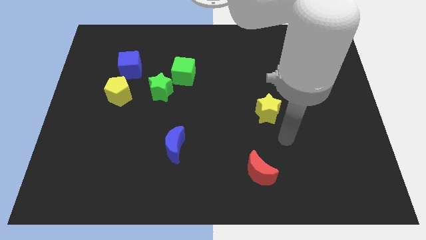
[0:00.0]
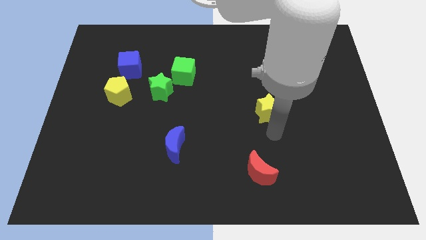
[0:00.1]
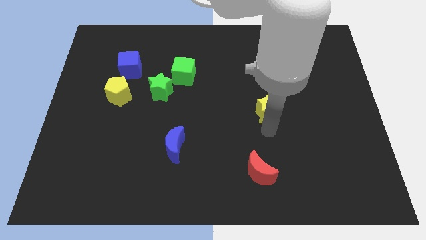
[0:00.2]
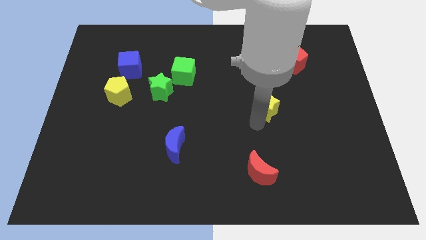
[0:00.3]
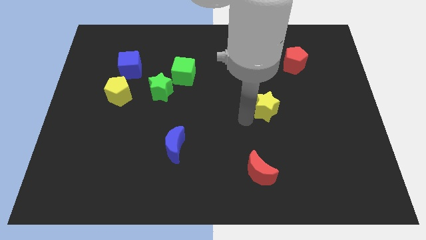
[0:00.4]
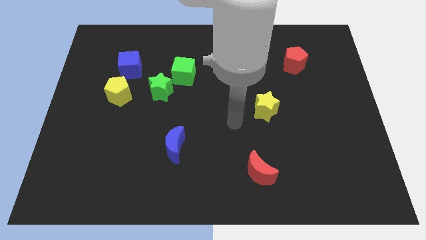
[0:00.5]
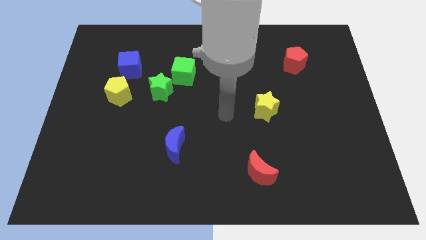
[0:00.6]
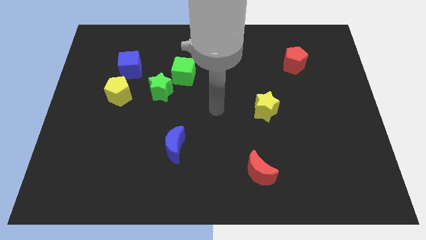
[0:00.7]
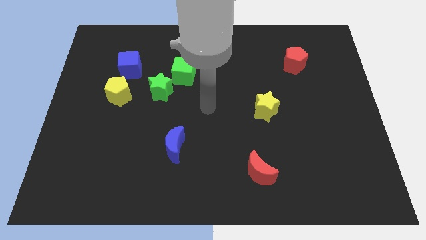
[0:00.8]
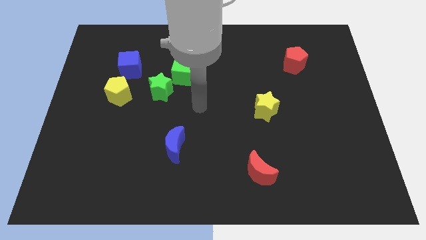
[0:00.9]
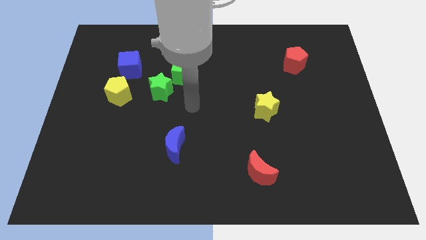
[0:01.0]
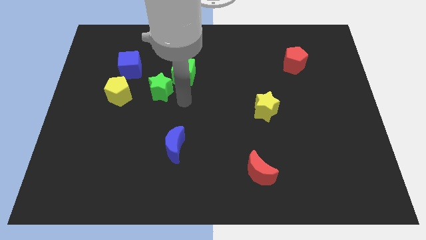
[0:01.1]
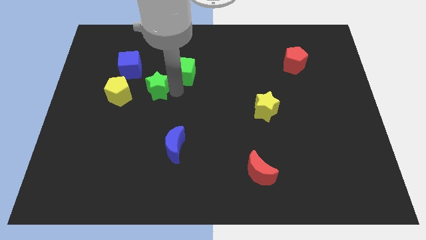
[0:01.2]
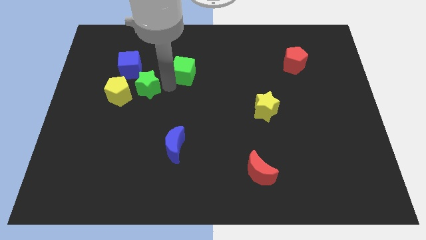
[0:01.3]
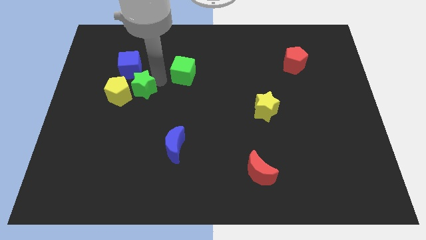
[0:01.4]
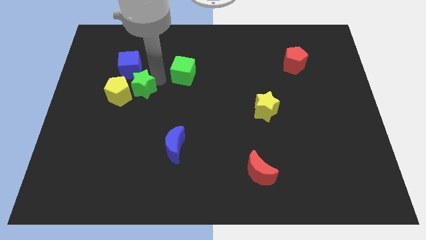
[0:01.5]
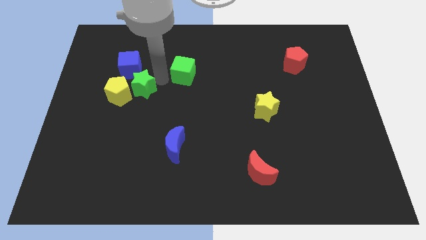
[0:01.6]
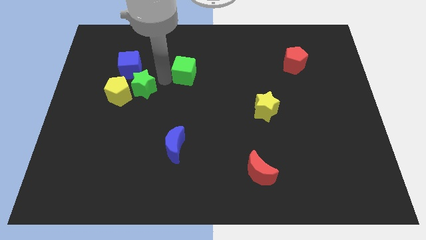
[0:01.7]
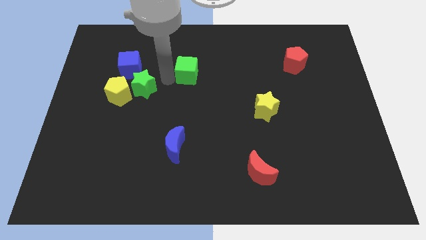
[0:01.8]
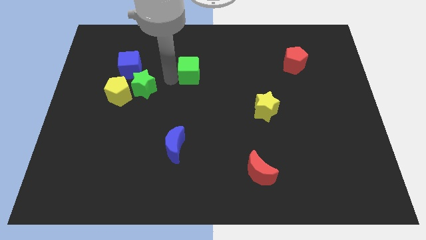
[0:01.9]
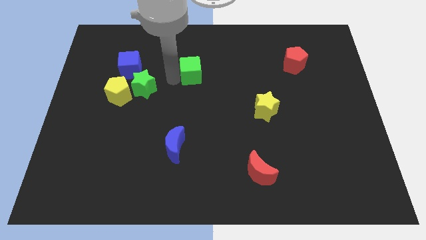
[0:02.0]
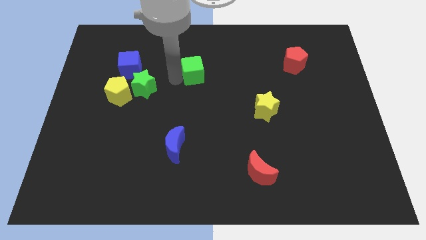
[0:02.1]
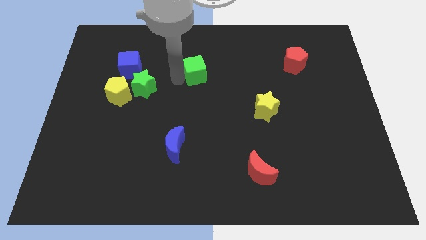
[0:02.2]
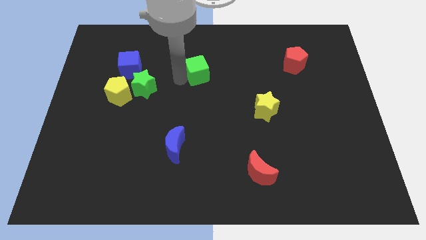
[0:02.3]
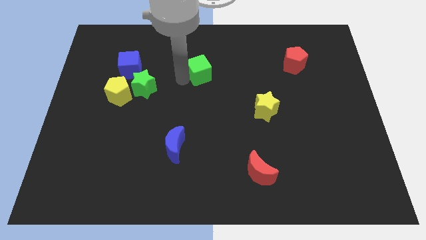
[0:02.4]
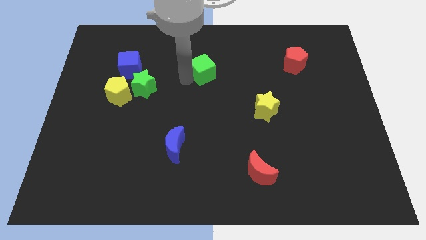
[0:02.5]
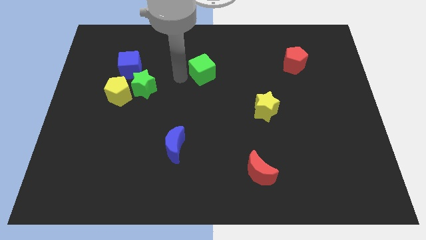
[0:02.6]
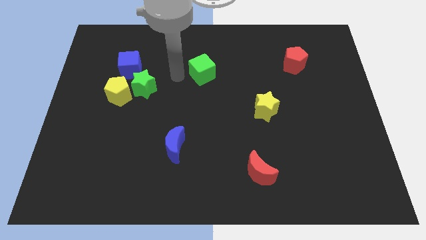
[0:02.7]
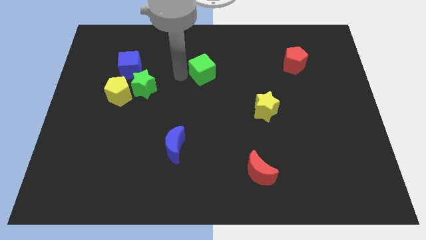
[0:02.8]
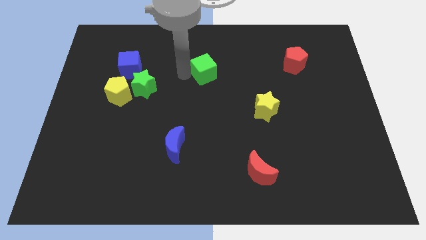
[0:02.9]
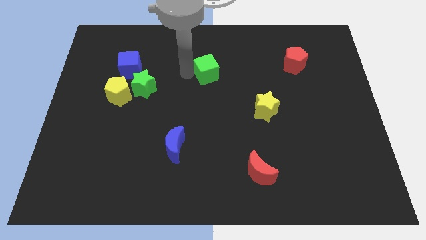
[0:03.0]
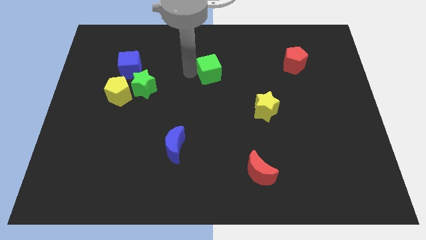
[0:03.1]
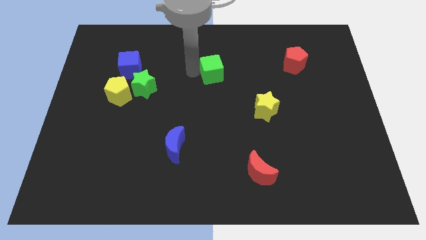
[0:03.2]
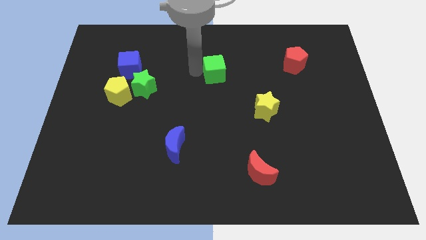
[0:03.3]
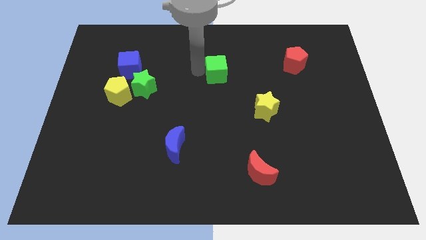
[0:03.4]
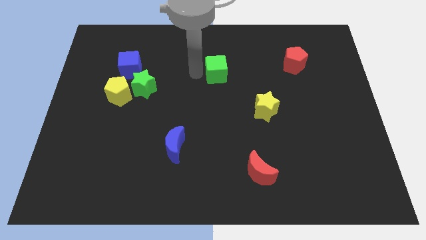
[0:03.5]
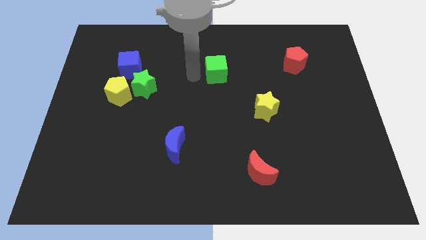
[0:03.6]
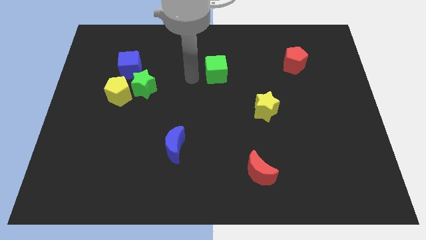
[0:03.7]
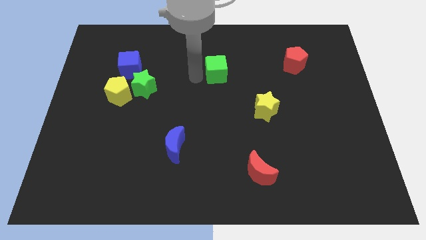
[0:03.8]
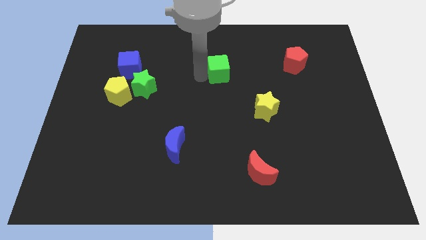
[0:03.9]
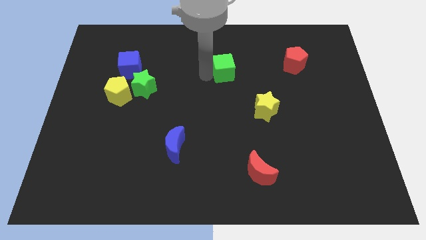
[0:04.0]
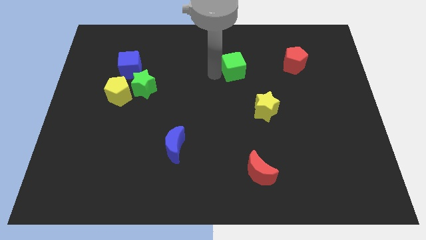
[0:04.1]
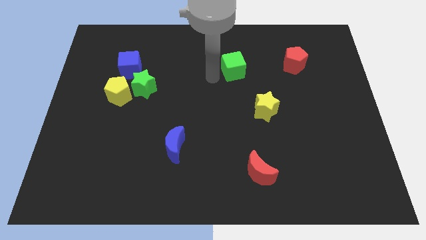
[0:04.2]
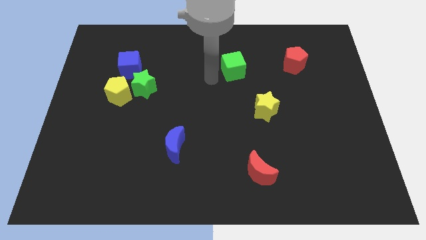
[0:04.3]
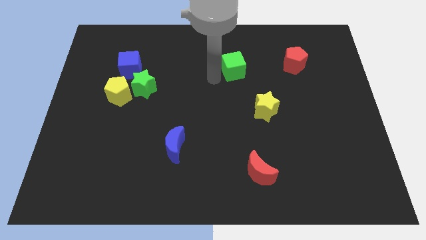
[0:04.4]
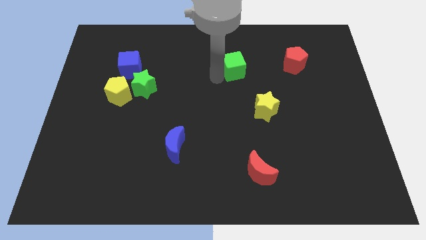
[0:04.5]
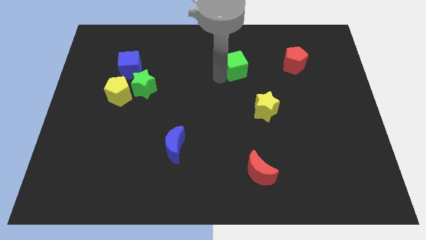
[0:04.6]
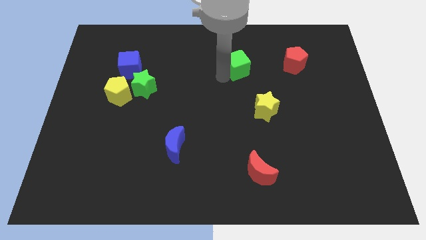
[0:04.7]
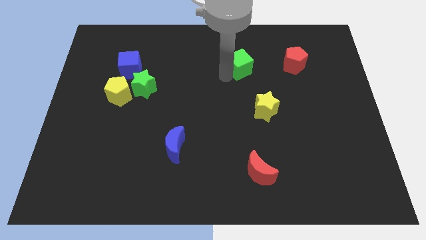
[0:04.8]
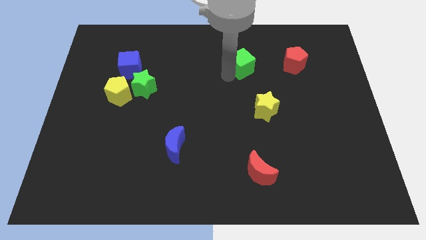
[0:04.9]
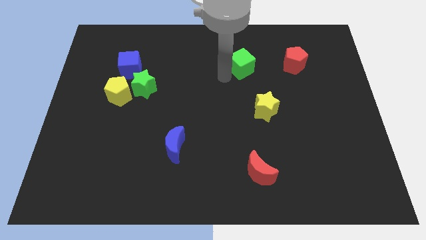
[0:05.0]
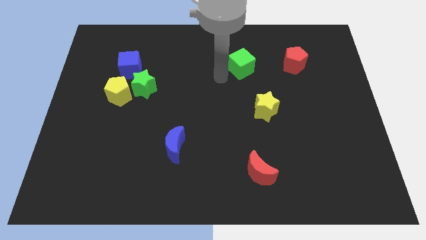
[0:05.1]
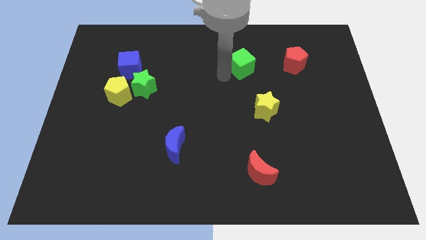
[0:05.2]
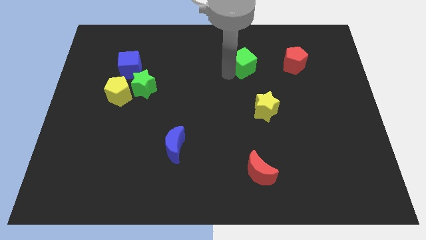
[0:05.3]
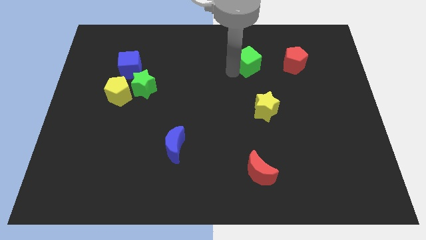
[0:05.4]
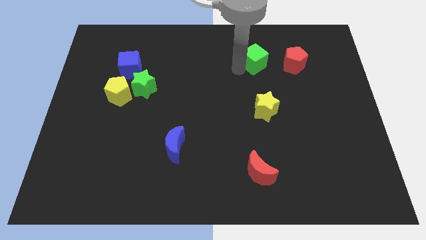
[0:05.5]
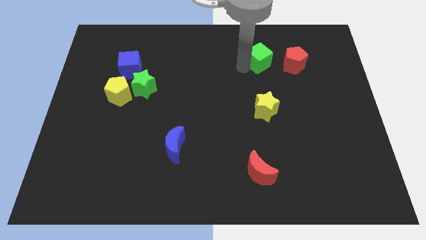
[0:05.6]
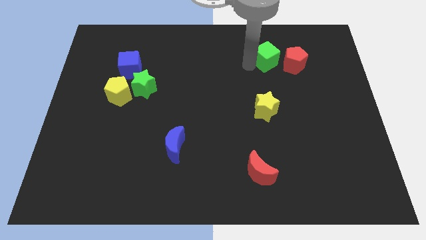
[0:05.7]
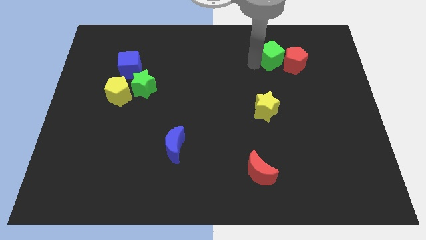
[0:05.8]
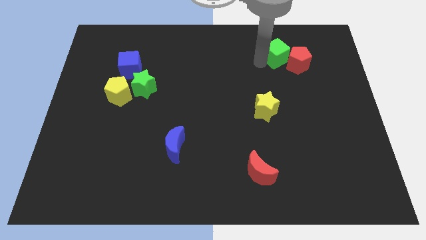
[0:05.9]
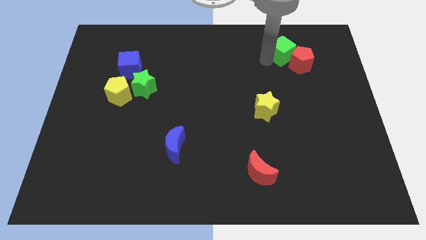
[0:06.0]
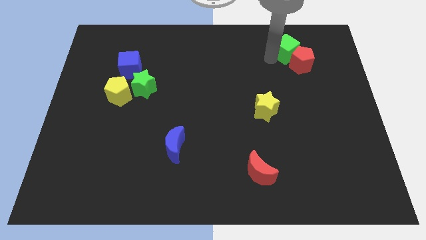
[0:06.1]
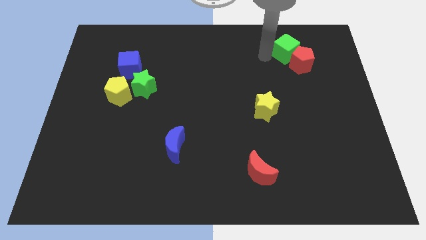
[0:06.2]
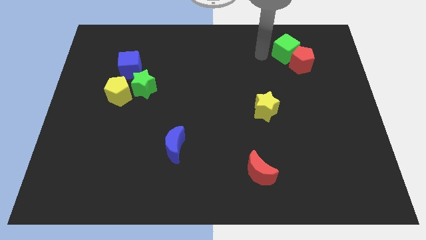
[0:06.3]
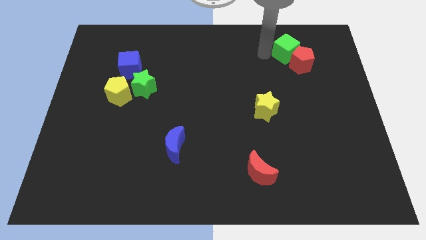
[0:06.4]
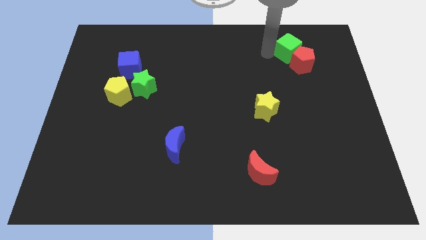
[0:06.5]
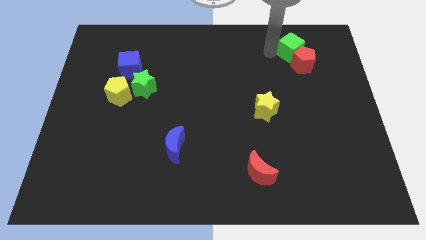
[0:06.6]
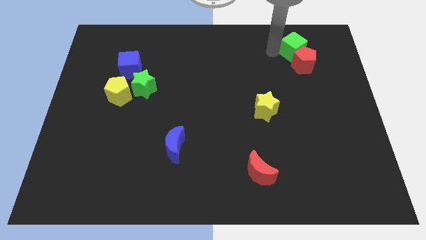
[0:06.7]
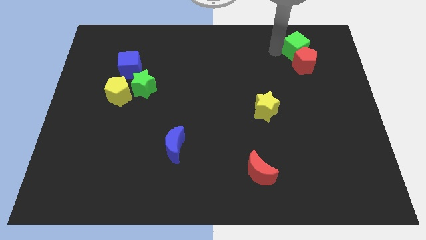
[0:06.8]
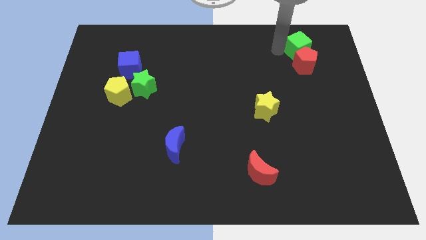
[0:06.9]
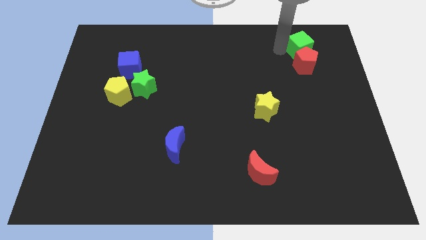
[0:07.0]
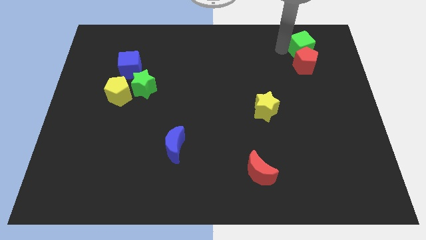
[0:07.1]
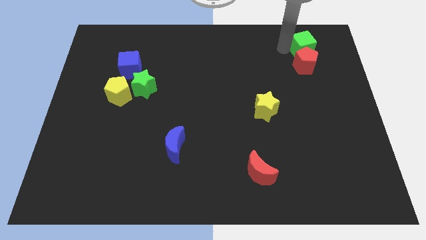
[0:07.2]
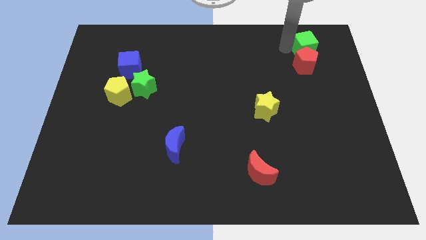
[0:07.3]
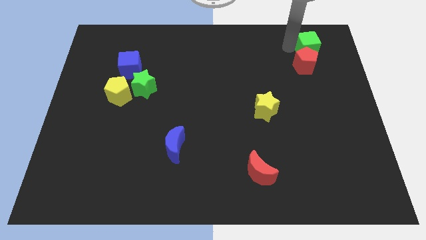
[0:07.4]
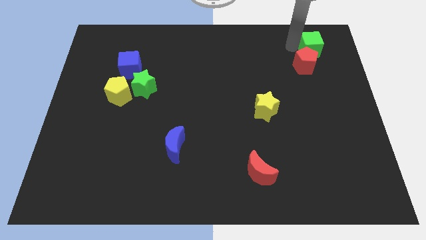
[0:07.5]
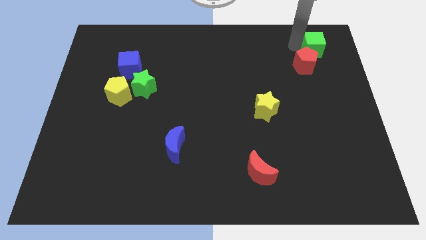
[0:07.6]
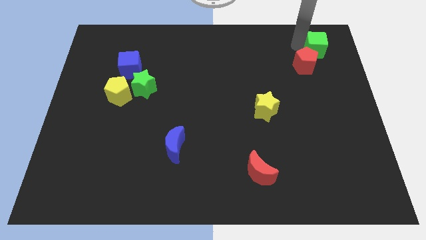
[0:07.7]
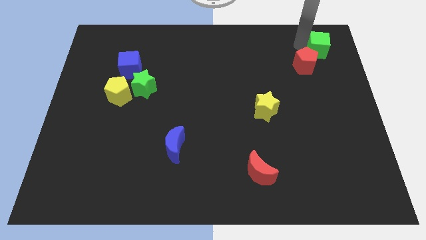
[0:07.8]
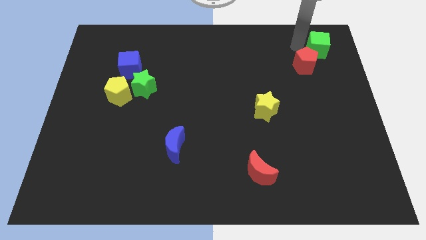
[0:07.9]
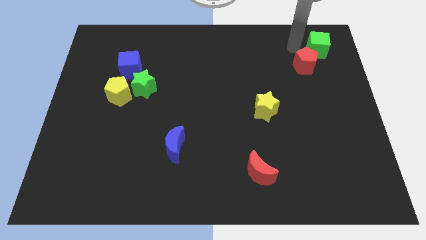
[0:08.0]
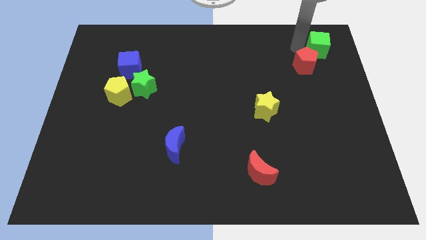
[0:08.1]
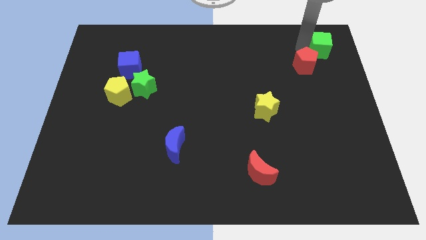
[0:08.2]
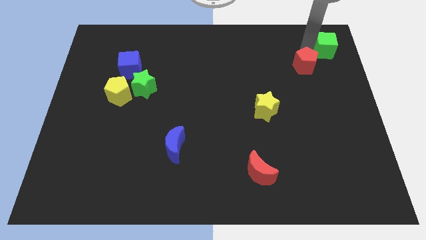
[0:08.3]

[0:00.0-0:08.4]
put the green cube to the upper right corner
